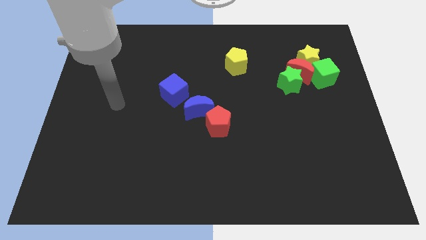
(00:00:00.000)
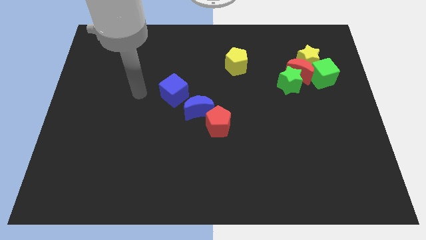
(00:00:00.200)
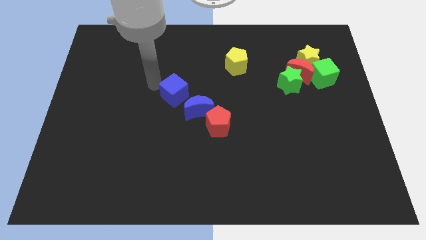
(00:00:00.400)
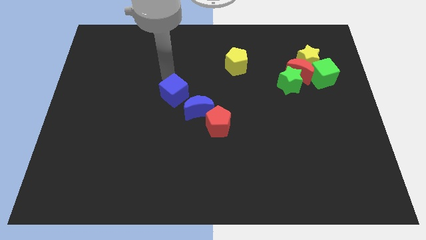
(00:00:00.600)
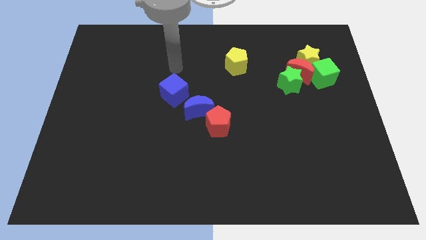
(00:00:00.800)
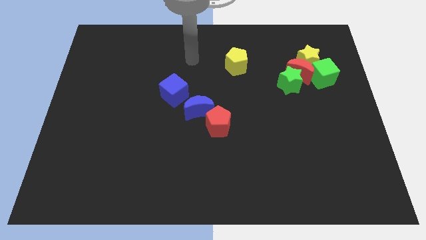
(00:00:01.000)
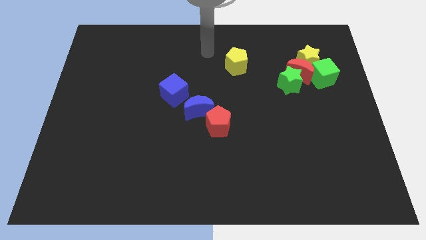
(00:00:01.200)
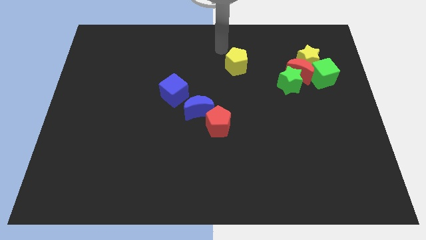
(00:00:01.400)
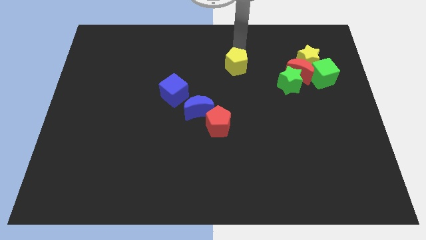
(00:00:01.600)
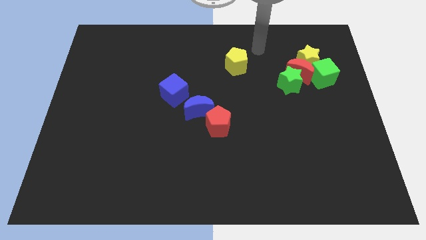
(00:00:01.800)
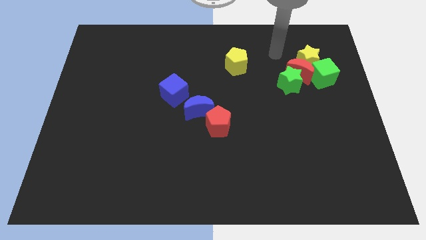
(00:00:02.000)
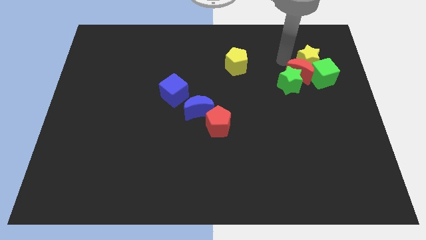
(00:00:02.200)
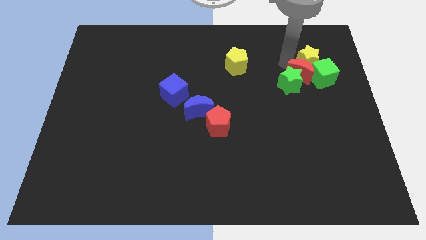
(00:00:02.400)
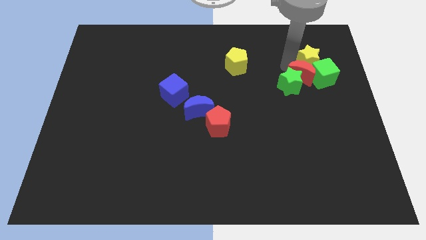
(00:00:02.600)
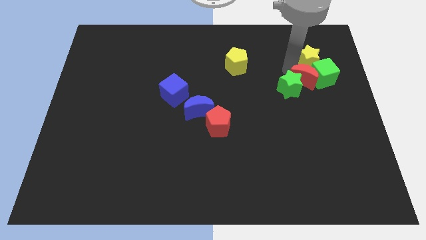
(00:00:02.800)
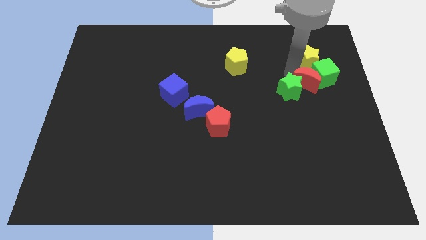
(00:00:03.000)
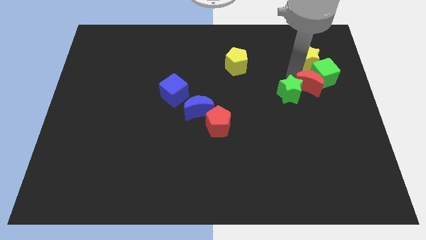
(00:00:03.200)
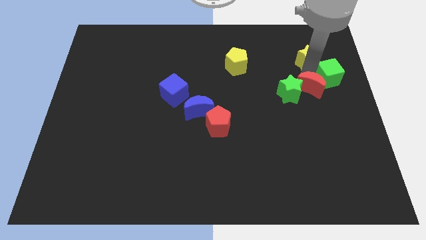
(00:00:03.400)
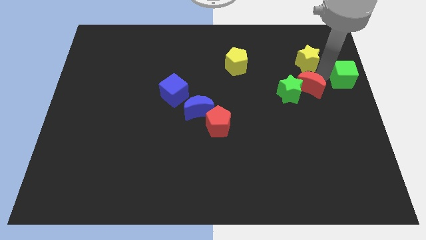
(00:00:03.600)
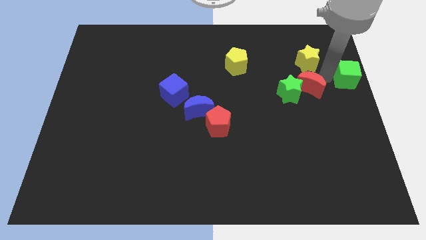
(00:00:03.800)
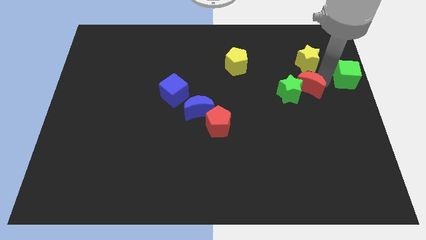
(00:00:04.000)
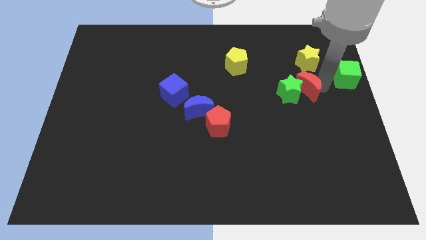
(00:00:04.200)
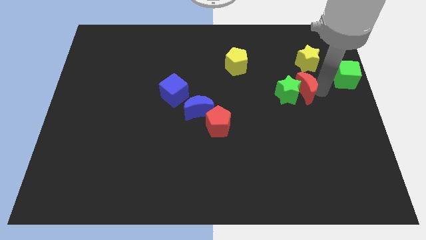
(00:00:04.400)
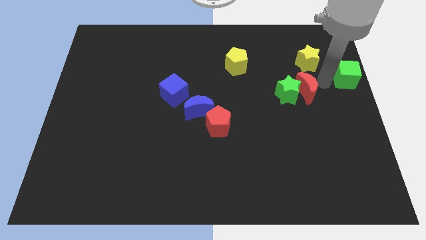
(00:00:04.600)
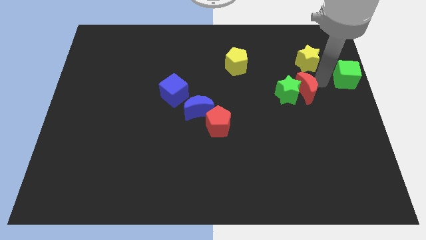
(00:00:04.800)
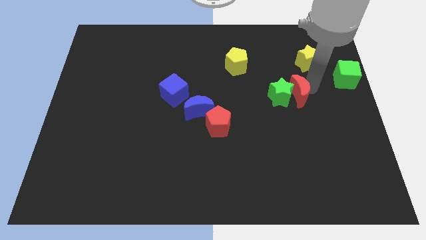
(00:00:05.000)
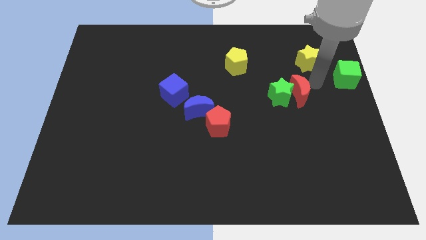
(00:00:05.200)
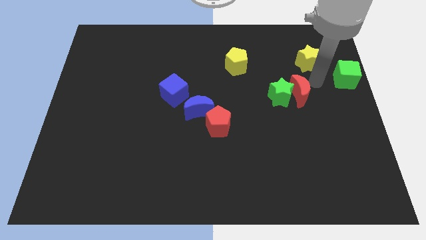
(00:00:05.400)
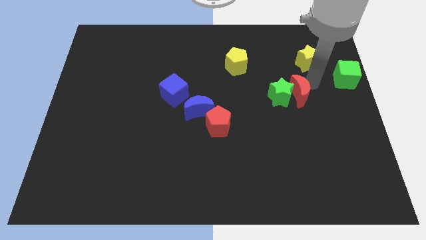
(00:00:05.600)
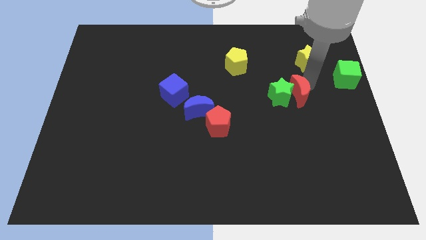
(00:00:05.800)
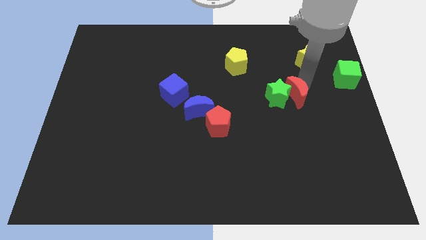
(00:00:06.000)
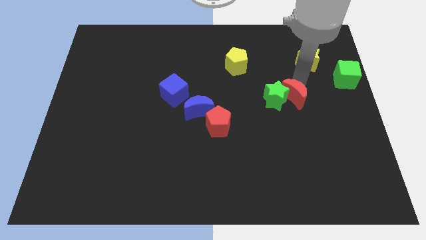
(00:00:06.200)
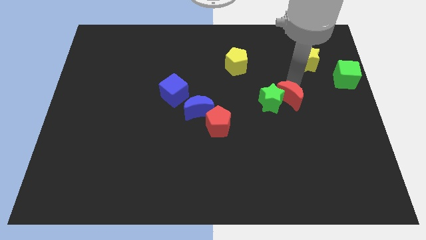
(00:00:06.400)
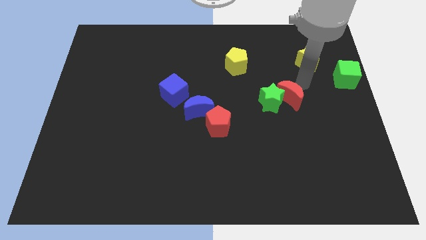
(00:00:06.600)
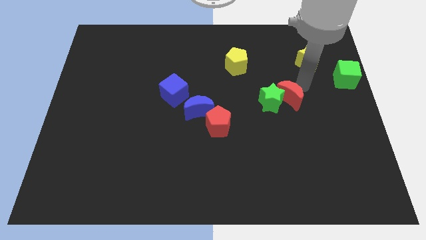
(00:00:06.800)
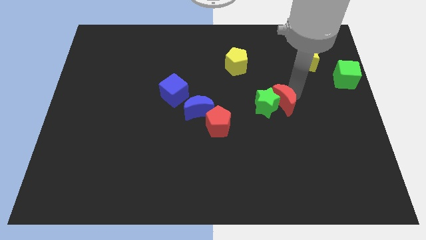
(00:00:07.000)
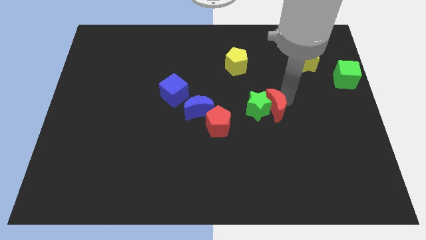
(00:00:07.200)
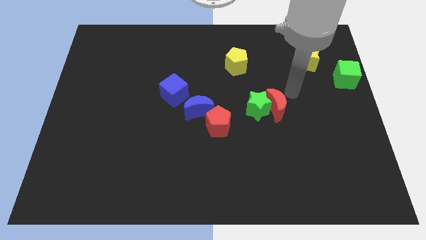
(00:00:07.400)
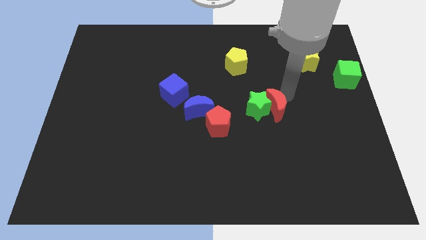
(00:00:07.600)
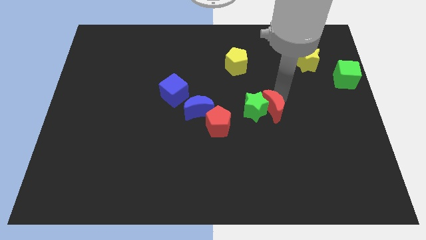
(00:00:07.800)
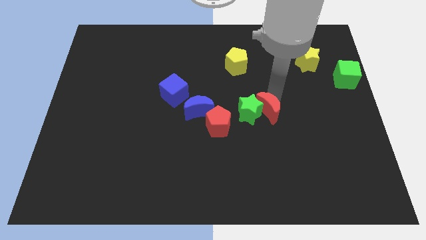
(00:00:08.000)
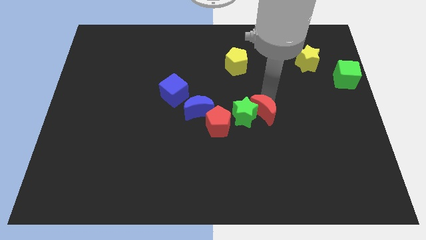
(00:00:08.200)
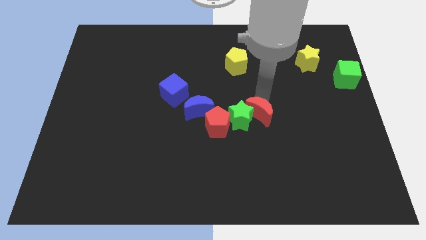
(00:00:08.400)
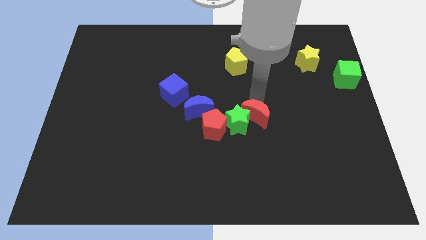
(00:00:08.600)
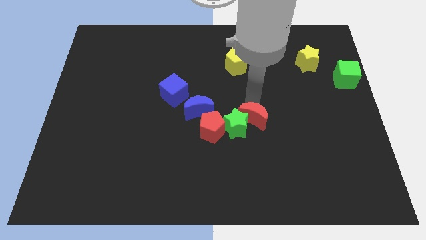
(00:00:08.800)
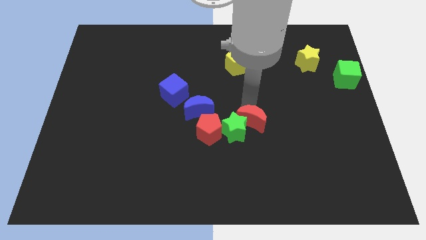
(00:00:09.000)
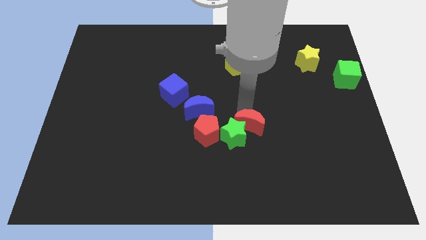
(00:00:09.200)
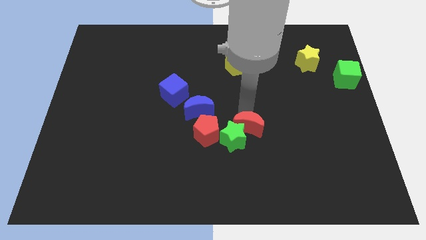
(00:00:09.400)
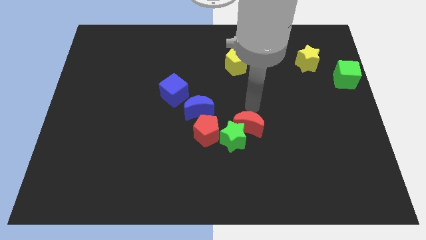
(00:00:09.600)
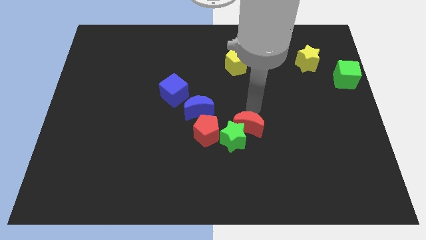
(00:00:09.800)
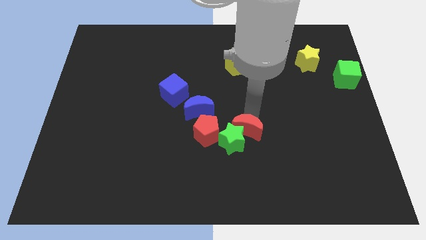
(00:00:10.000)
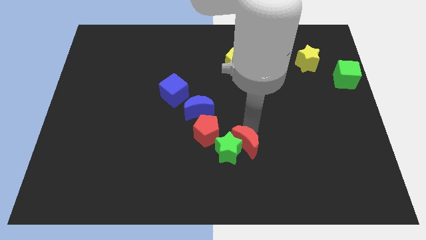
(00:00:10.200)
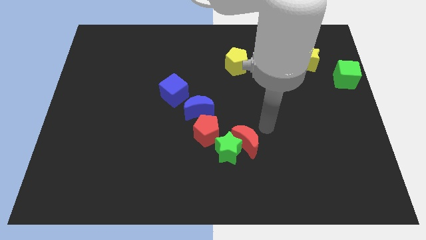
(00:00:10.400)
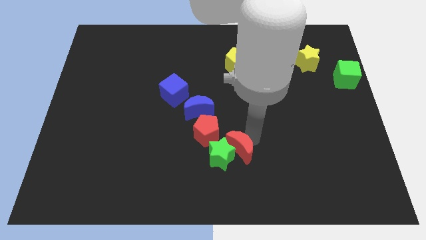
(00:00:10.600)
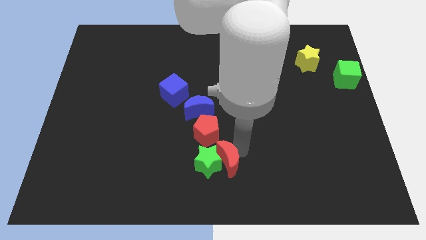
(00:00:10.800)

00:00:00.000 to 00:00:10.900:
slide the red moon to the bottom side of the red pentagon
